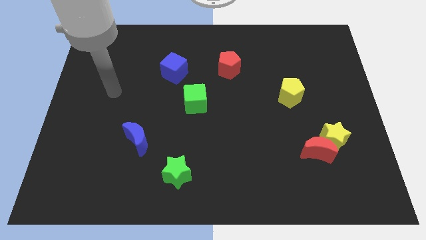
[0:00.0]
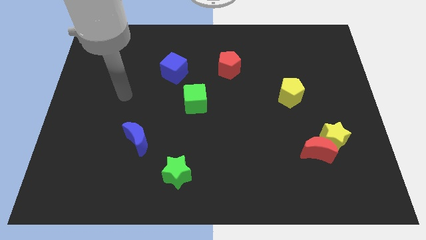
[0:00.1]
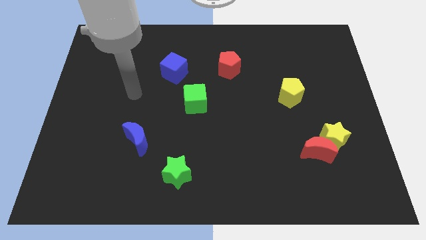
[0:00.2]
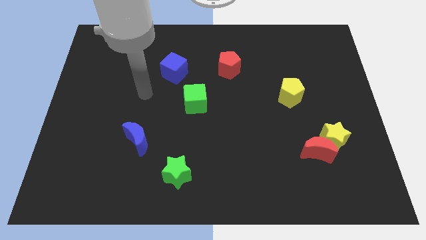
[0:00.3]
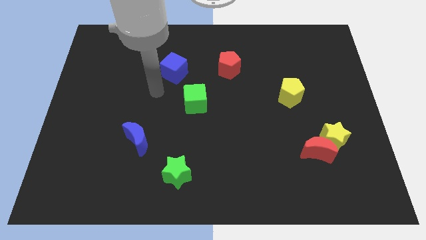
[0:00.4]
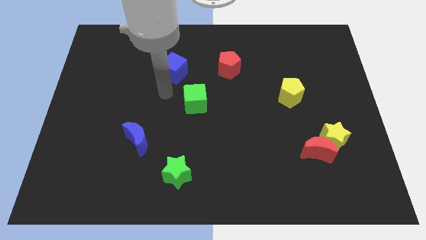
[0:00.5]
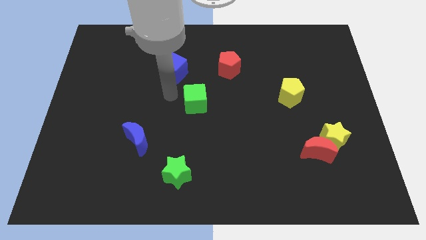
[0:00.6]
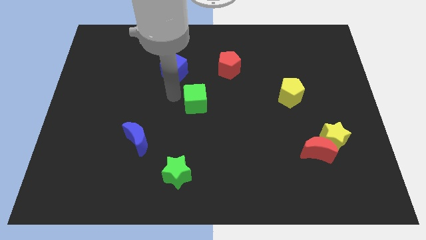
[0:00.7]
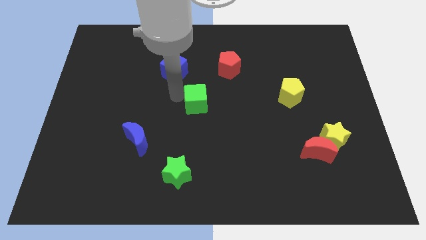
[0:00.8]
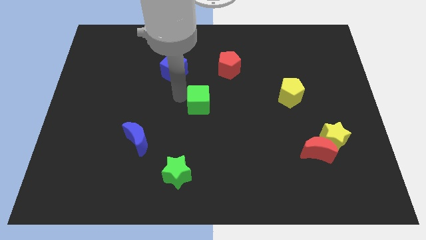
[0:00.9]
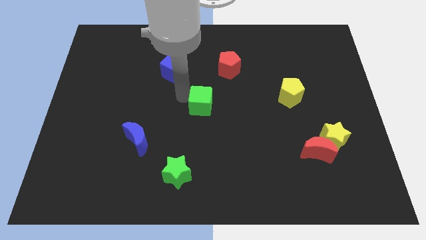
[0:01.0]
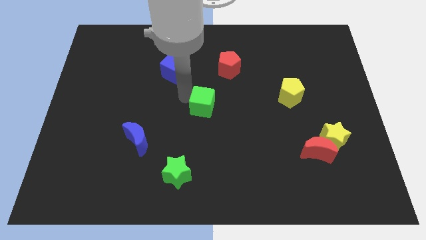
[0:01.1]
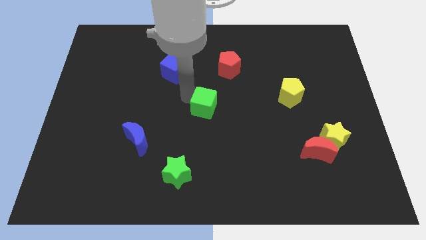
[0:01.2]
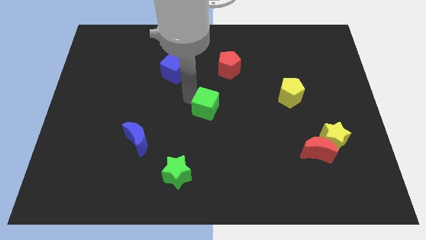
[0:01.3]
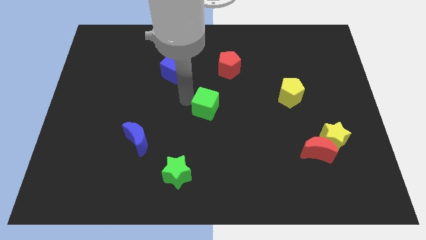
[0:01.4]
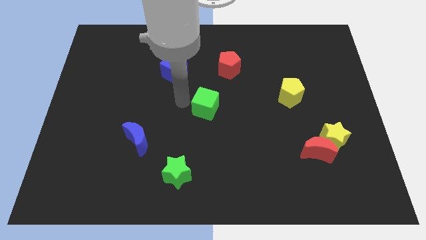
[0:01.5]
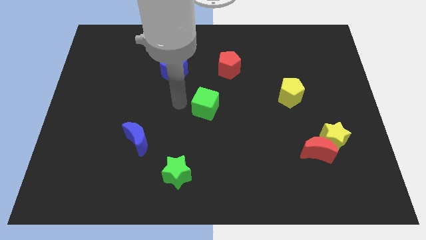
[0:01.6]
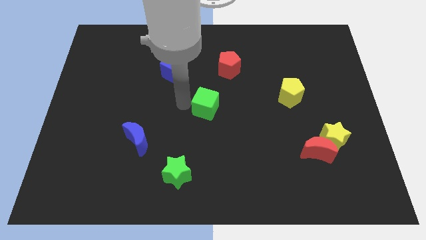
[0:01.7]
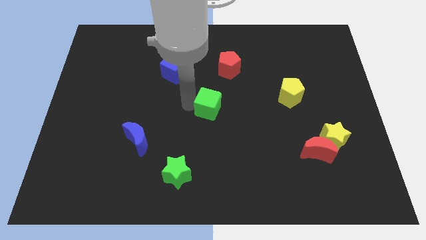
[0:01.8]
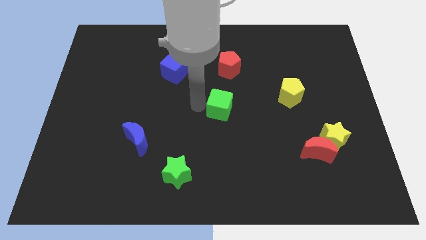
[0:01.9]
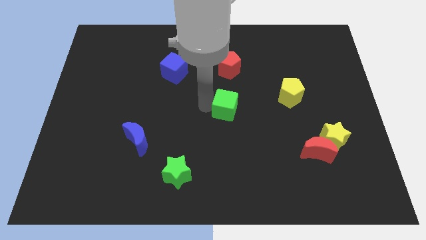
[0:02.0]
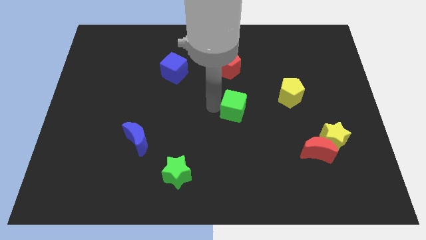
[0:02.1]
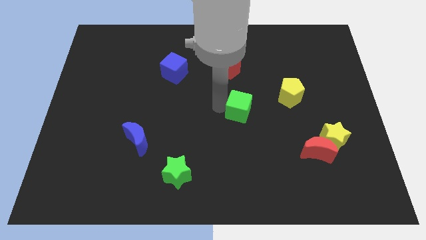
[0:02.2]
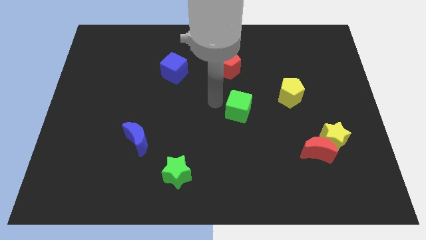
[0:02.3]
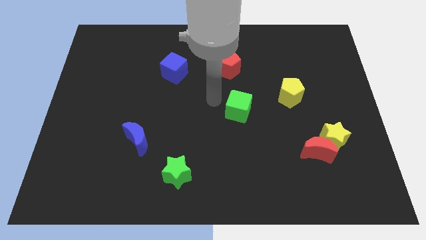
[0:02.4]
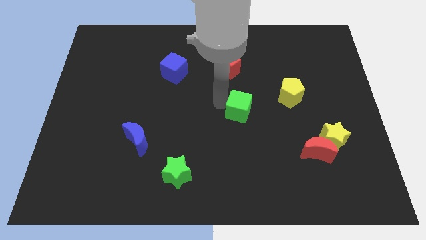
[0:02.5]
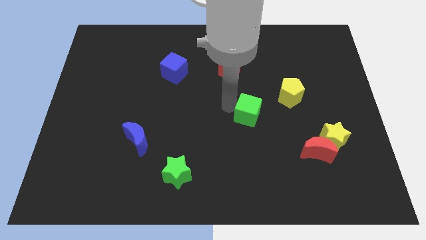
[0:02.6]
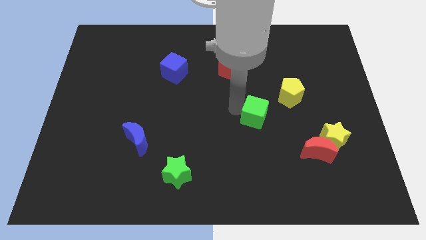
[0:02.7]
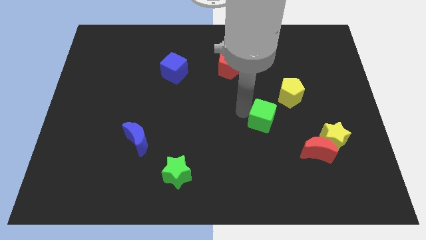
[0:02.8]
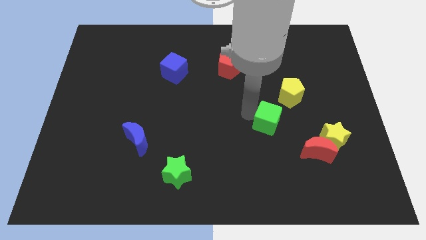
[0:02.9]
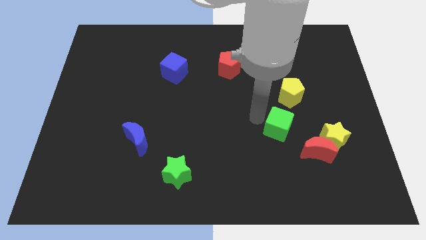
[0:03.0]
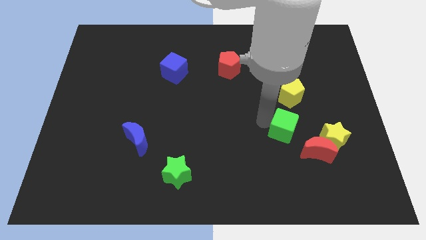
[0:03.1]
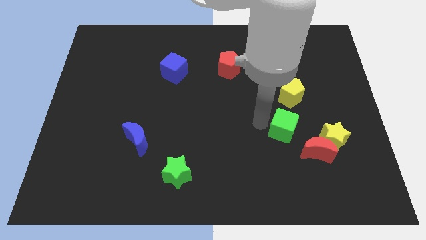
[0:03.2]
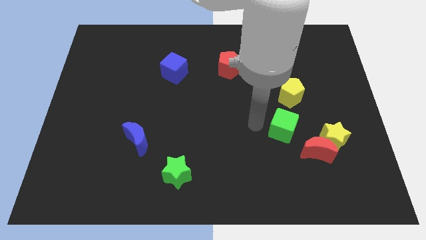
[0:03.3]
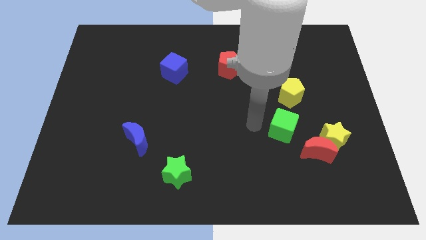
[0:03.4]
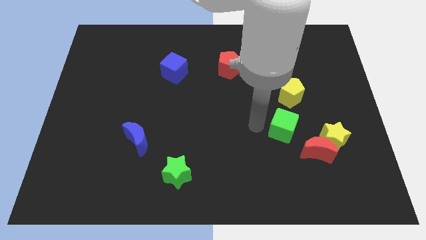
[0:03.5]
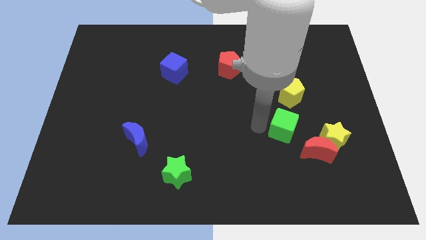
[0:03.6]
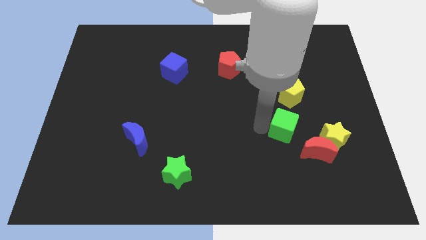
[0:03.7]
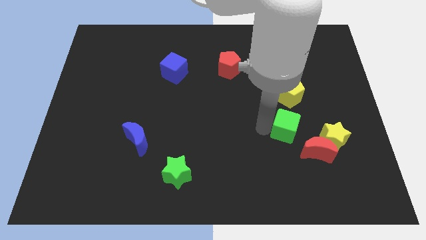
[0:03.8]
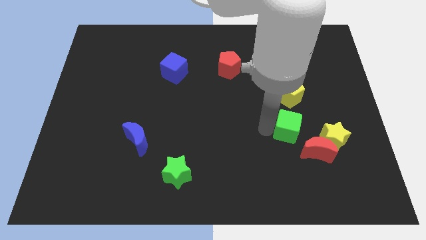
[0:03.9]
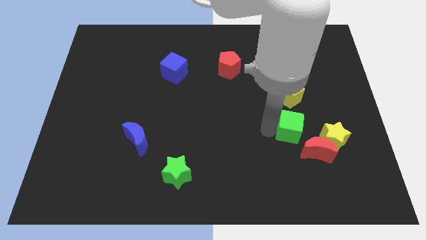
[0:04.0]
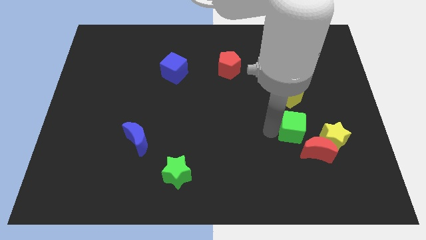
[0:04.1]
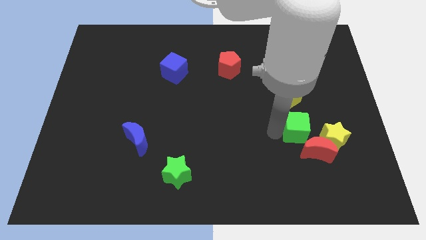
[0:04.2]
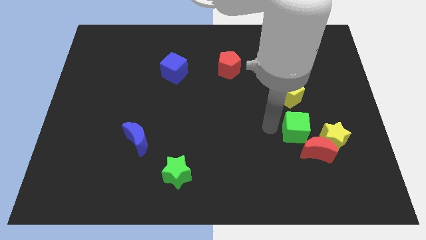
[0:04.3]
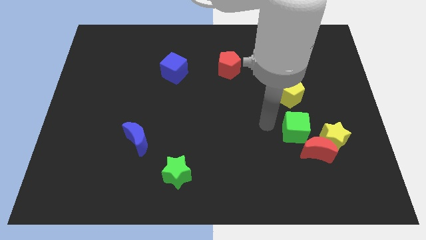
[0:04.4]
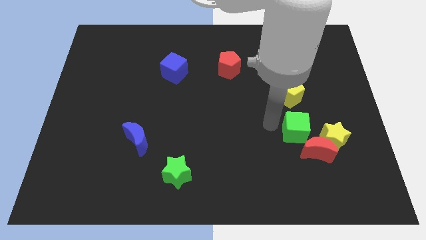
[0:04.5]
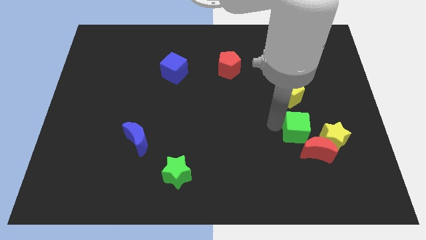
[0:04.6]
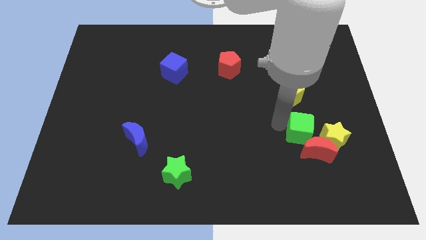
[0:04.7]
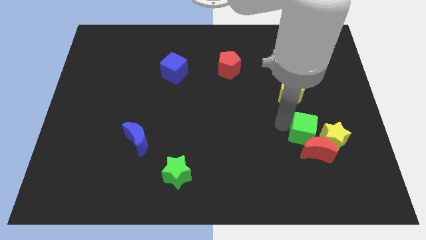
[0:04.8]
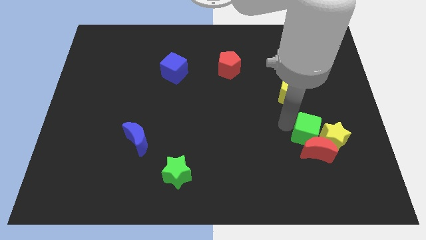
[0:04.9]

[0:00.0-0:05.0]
push the green cube towards the yellow star

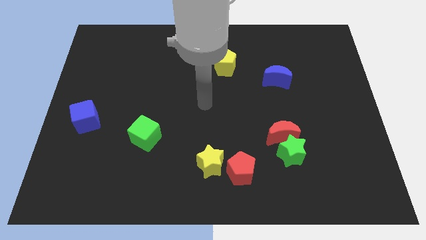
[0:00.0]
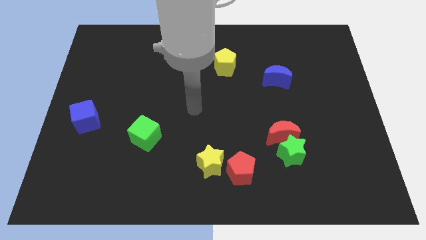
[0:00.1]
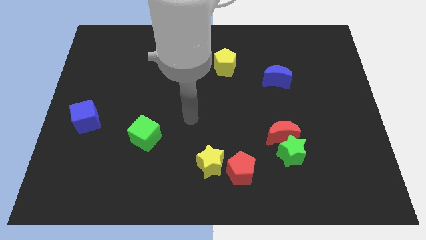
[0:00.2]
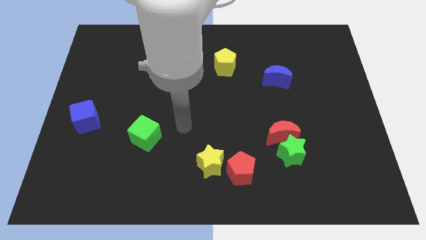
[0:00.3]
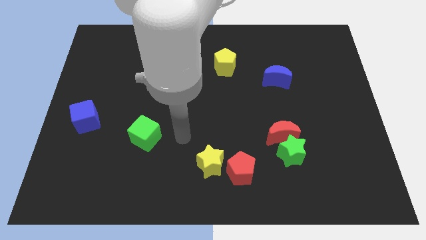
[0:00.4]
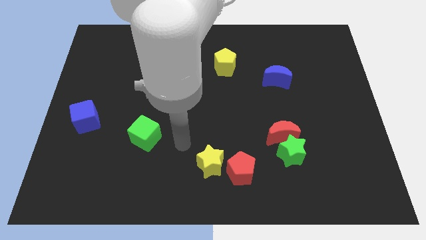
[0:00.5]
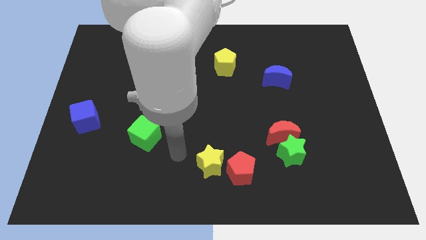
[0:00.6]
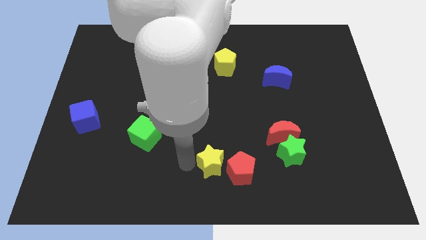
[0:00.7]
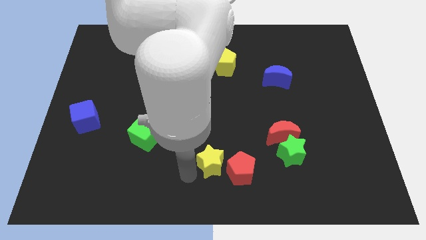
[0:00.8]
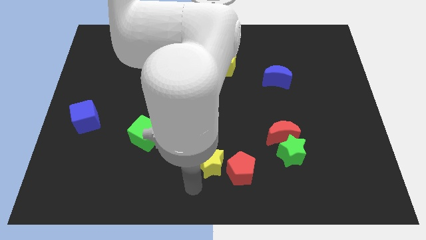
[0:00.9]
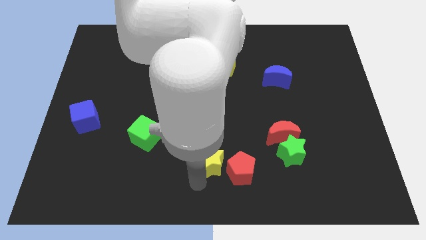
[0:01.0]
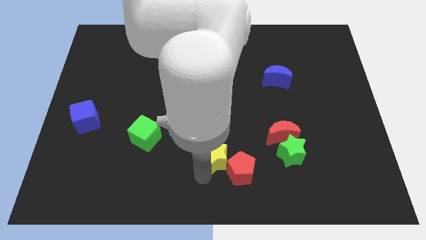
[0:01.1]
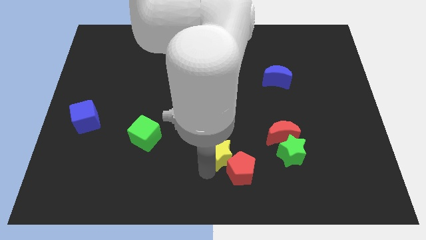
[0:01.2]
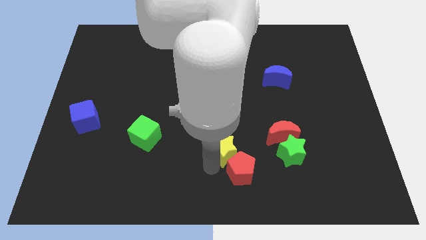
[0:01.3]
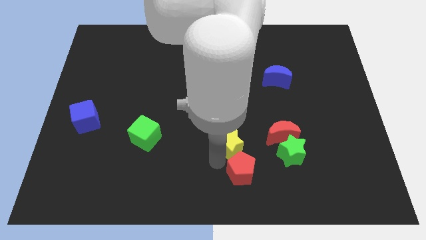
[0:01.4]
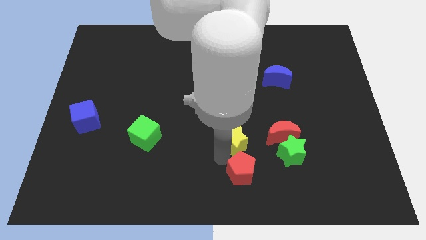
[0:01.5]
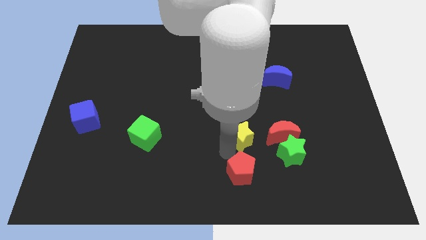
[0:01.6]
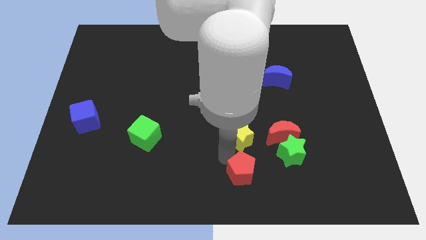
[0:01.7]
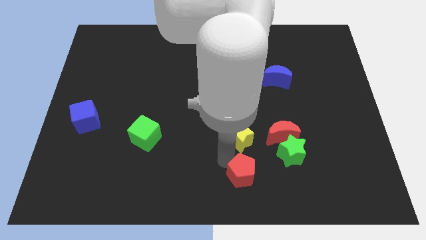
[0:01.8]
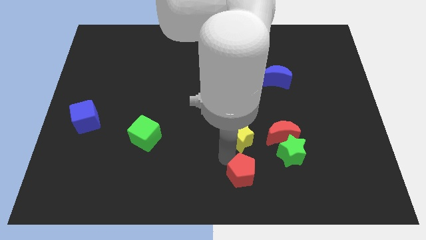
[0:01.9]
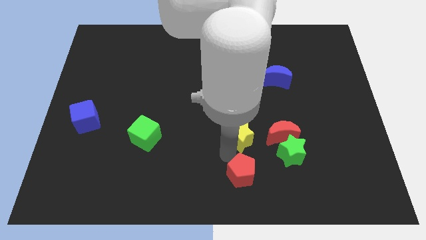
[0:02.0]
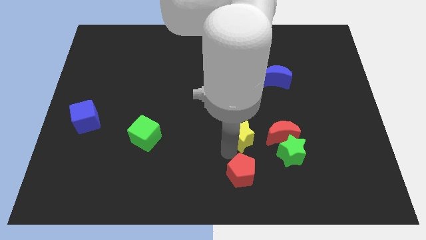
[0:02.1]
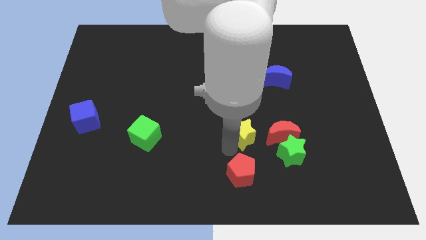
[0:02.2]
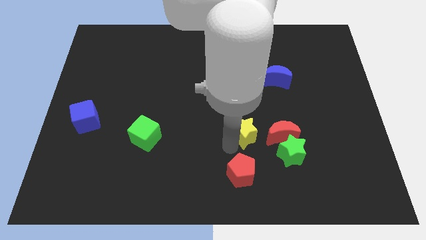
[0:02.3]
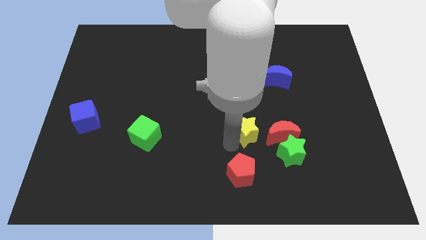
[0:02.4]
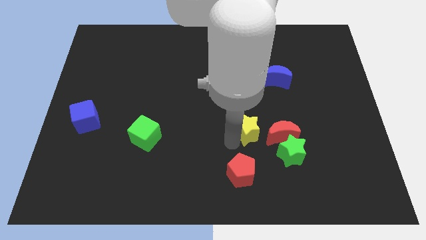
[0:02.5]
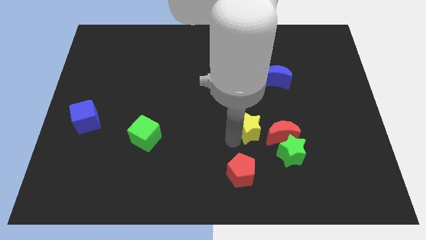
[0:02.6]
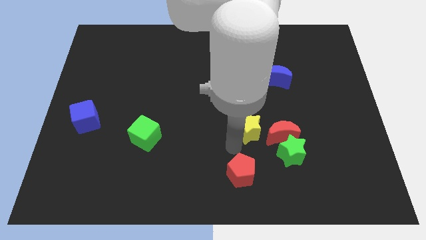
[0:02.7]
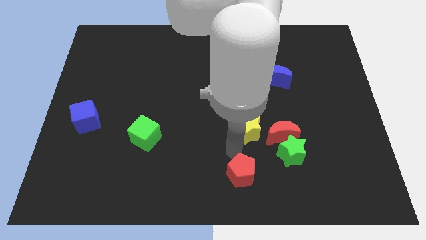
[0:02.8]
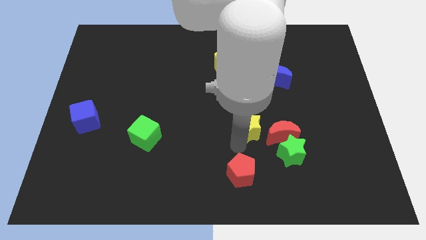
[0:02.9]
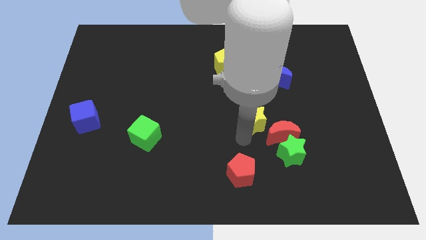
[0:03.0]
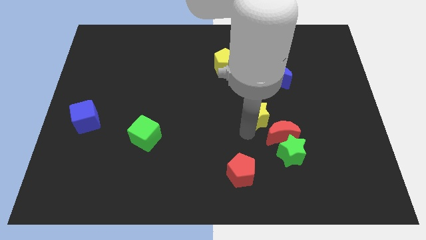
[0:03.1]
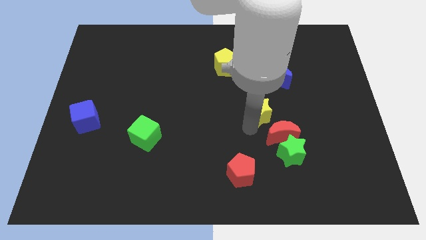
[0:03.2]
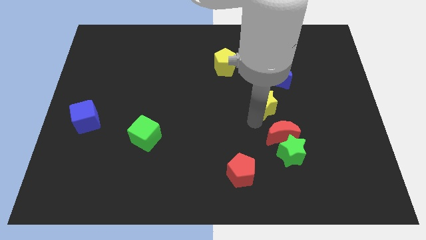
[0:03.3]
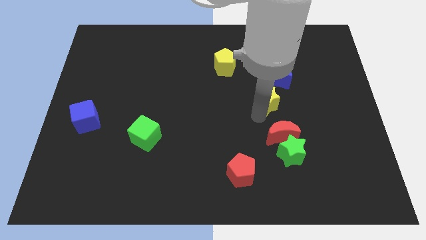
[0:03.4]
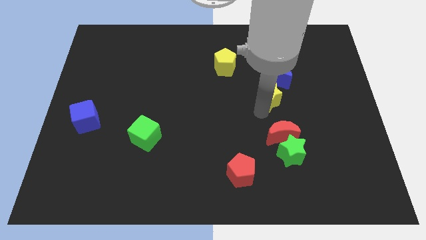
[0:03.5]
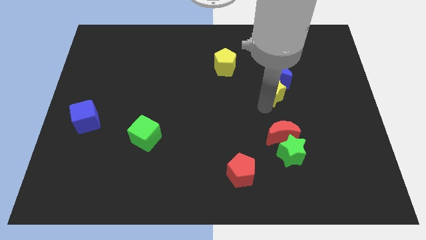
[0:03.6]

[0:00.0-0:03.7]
move the yellow star to the blue moon
